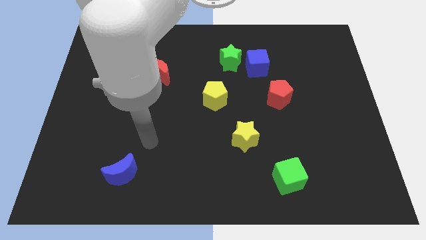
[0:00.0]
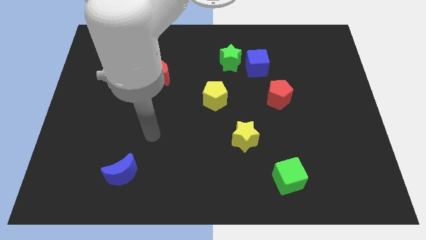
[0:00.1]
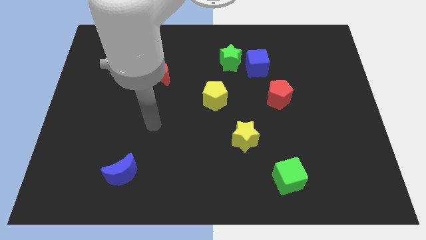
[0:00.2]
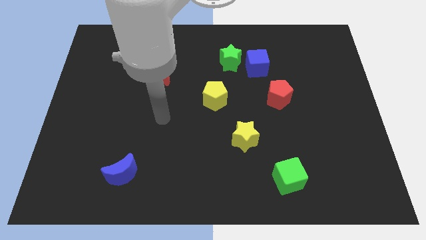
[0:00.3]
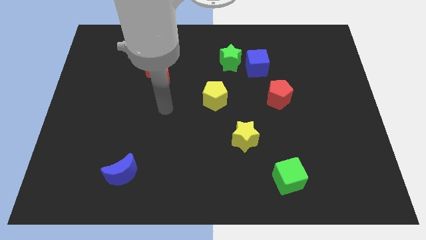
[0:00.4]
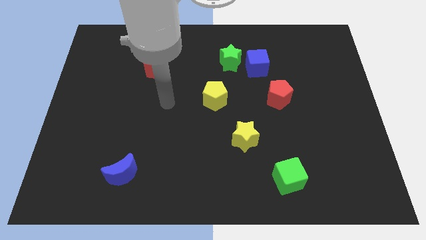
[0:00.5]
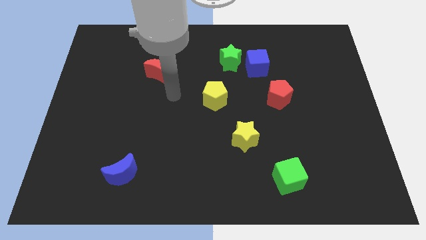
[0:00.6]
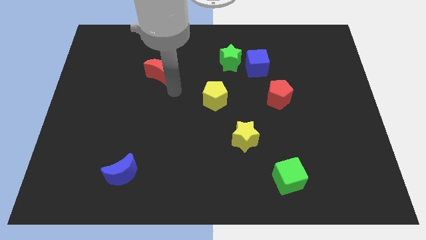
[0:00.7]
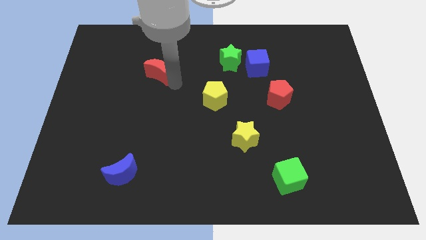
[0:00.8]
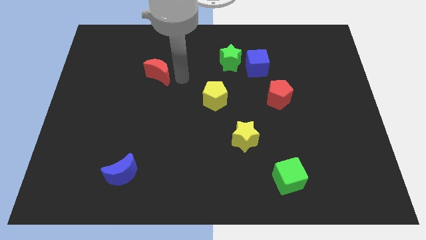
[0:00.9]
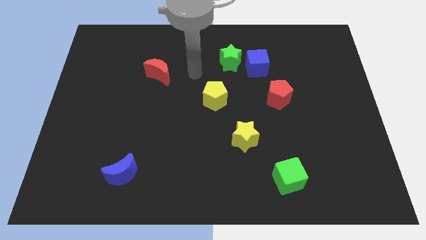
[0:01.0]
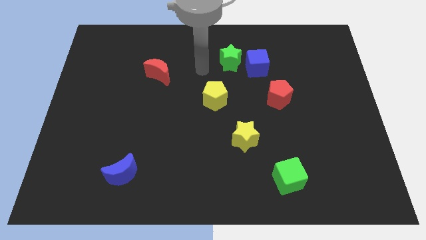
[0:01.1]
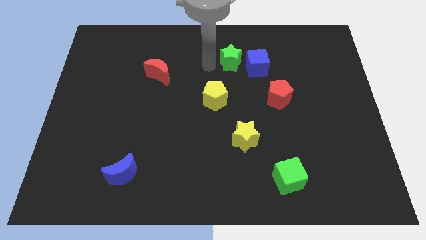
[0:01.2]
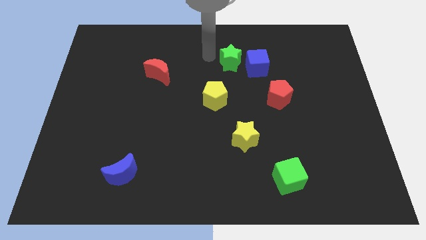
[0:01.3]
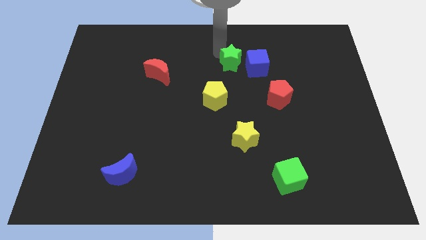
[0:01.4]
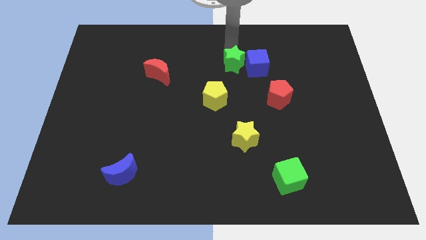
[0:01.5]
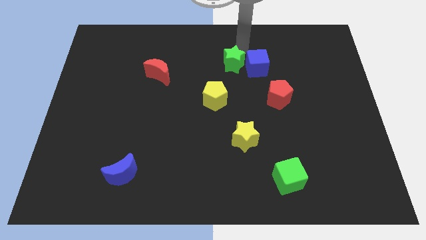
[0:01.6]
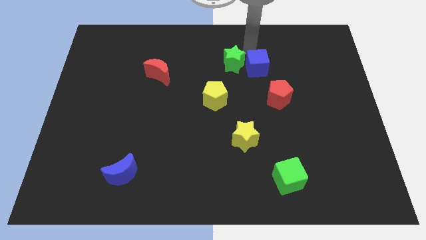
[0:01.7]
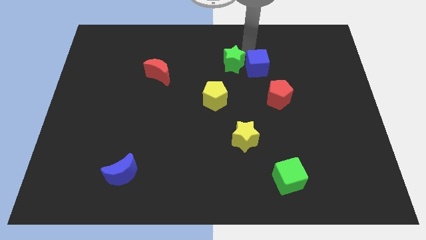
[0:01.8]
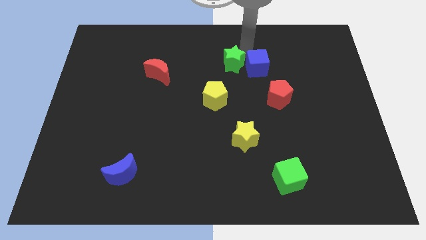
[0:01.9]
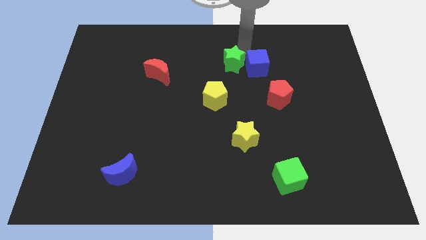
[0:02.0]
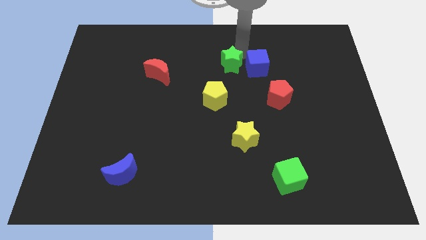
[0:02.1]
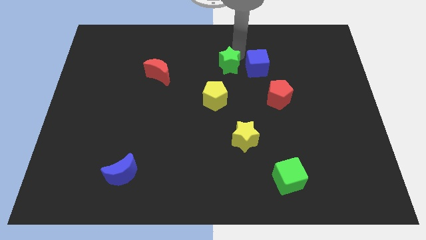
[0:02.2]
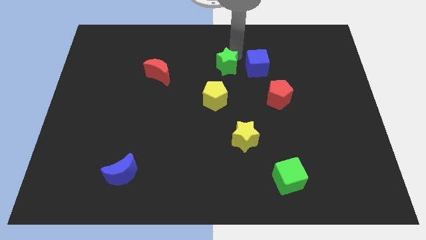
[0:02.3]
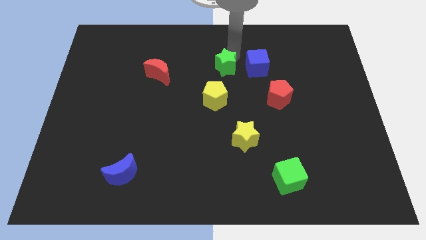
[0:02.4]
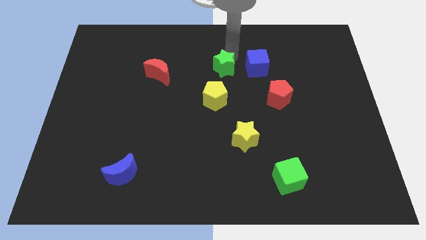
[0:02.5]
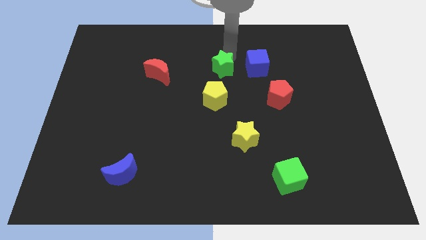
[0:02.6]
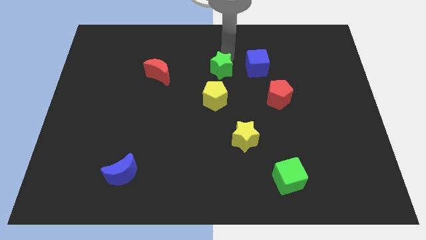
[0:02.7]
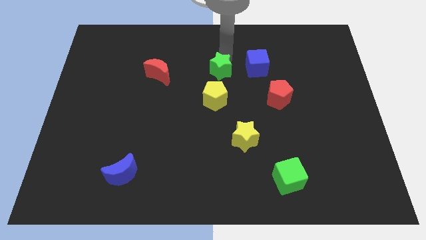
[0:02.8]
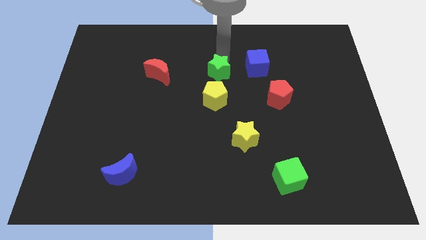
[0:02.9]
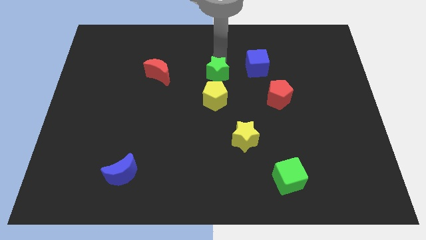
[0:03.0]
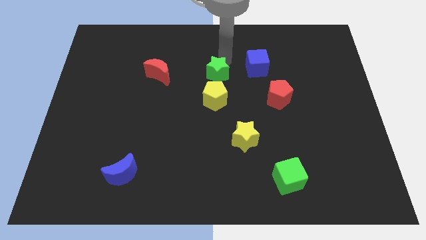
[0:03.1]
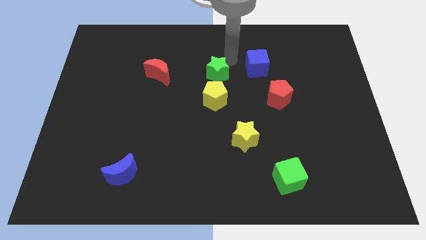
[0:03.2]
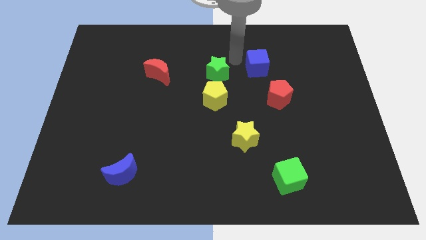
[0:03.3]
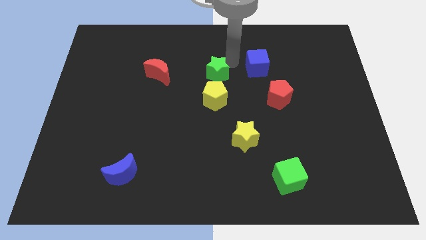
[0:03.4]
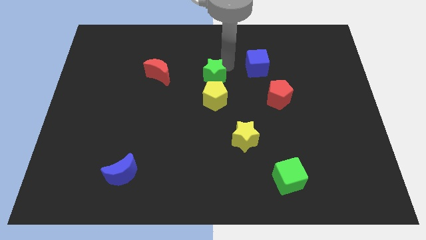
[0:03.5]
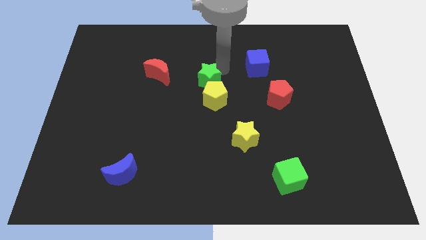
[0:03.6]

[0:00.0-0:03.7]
push the green star downwards and left a bit

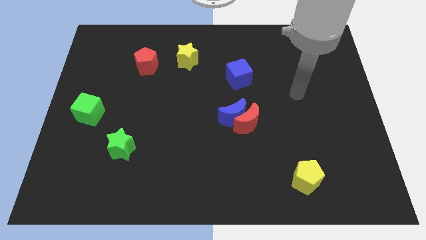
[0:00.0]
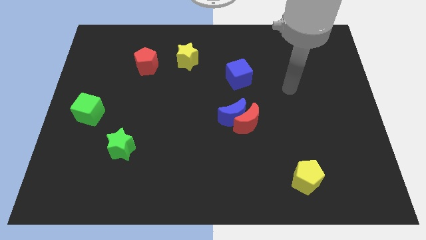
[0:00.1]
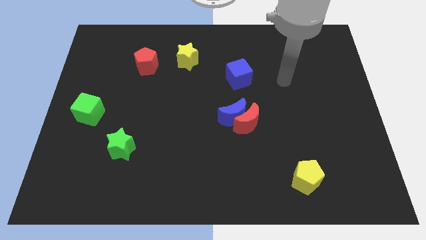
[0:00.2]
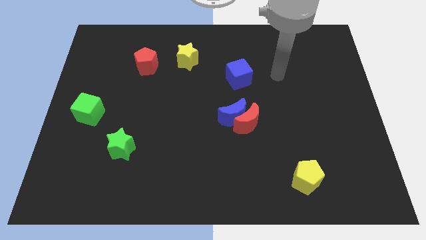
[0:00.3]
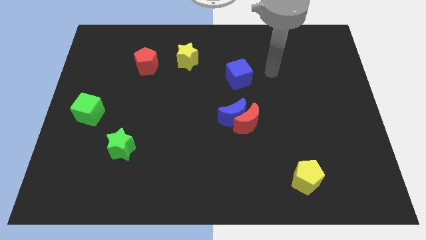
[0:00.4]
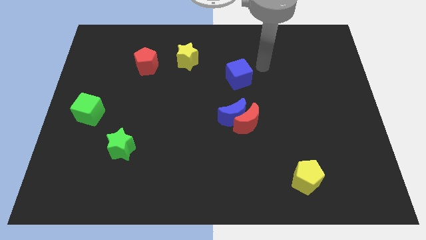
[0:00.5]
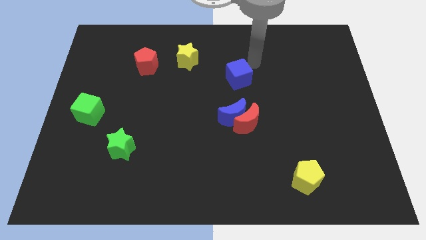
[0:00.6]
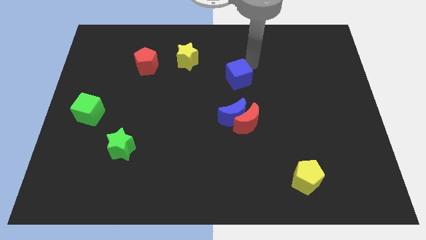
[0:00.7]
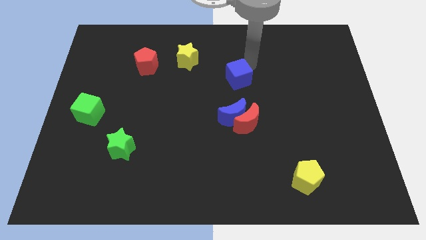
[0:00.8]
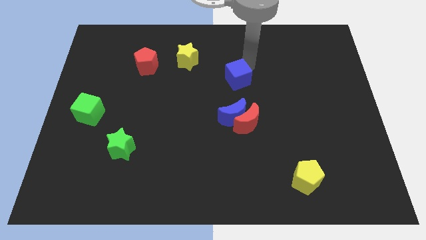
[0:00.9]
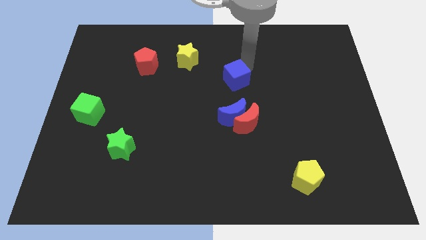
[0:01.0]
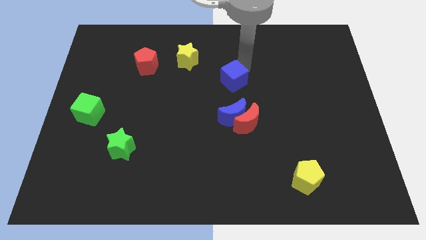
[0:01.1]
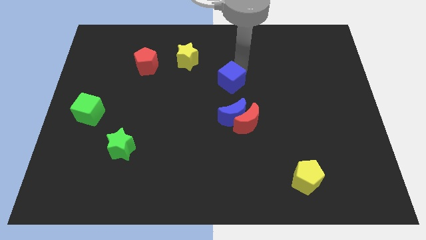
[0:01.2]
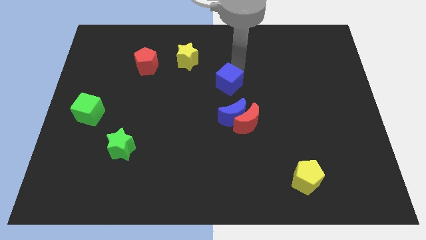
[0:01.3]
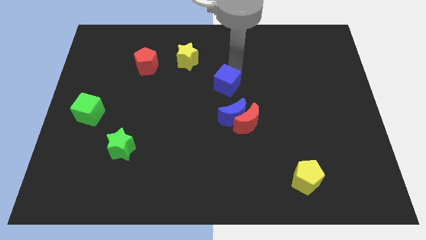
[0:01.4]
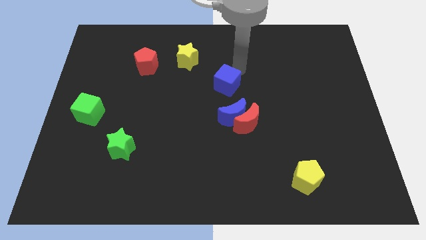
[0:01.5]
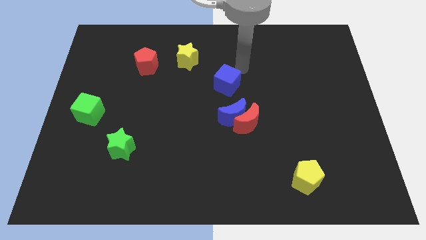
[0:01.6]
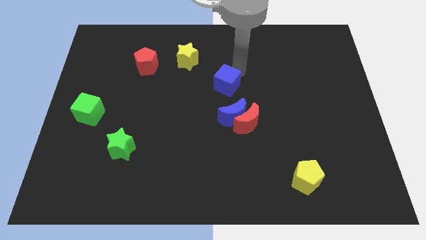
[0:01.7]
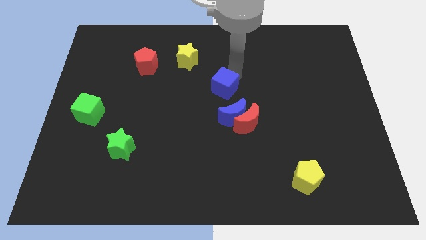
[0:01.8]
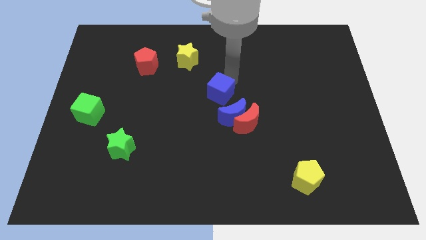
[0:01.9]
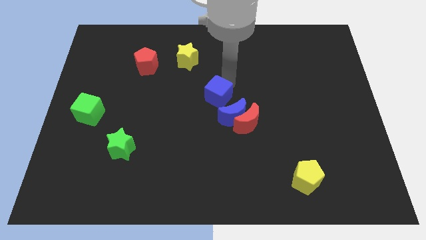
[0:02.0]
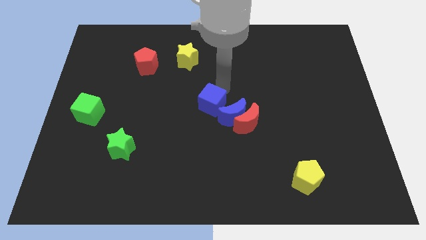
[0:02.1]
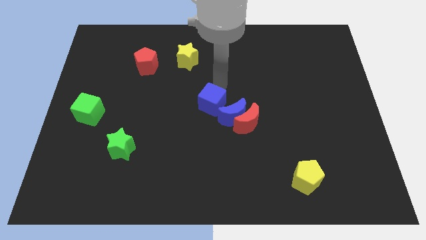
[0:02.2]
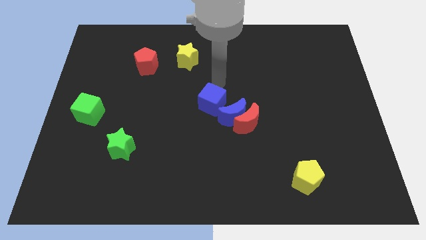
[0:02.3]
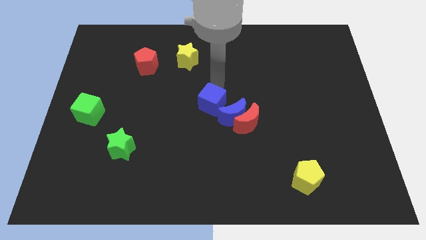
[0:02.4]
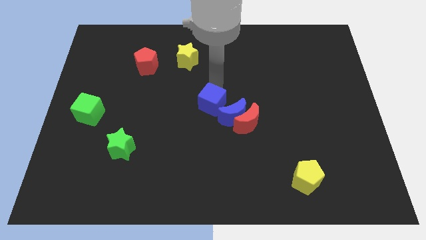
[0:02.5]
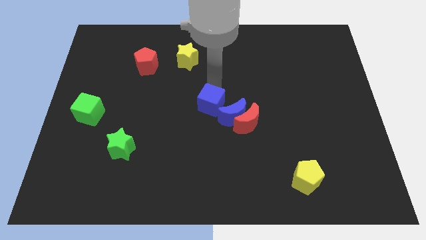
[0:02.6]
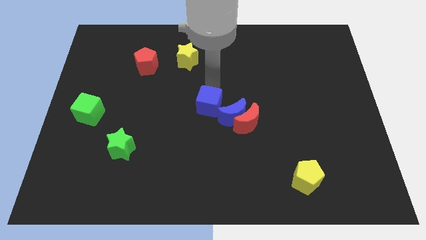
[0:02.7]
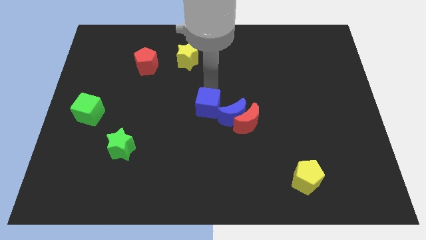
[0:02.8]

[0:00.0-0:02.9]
slide the blue cube a bit down

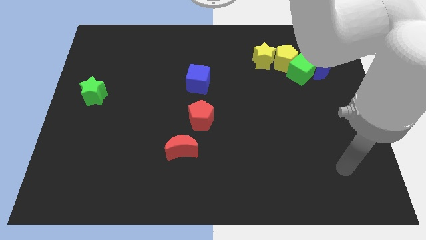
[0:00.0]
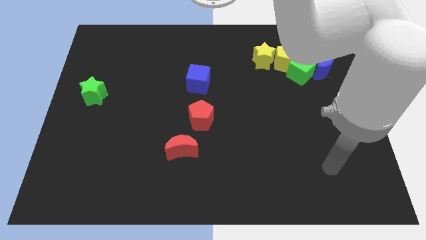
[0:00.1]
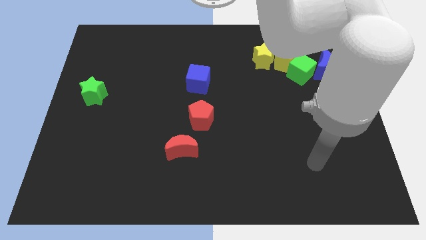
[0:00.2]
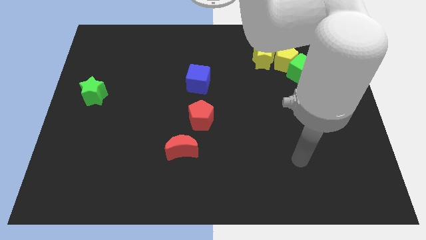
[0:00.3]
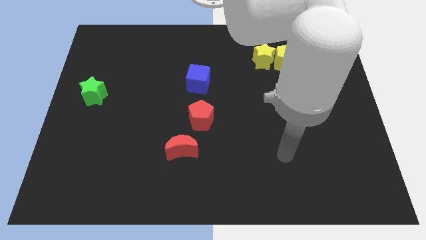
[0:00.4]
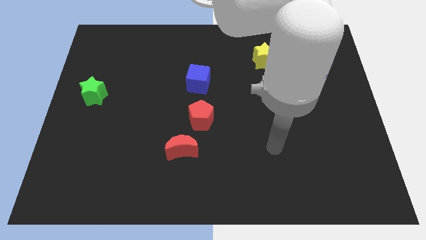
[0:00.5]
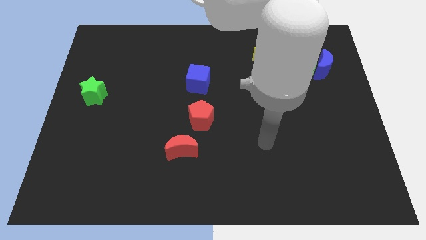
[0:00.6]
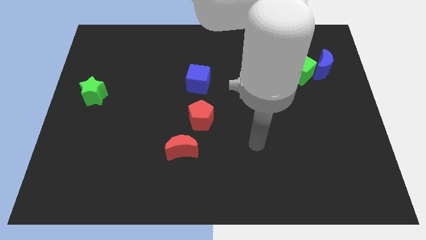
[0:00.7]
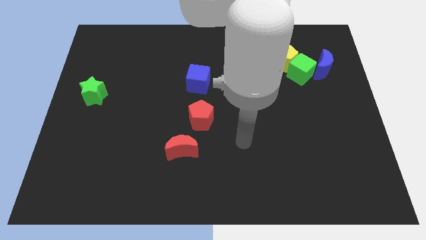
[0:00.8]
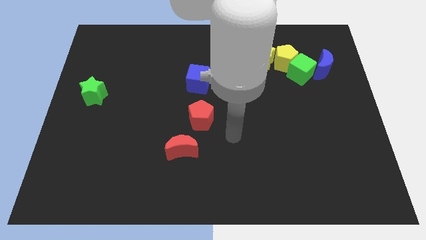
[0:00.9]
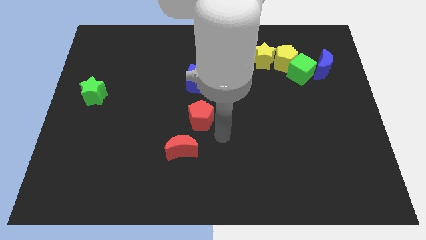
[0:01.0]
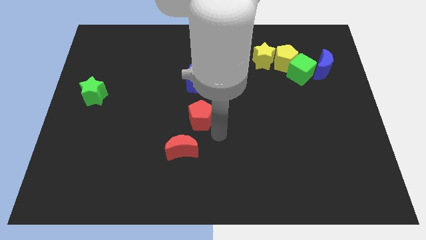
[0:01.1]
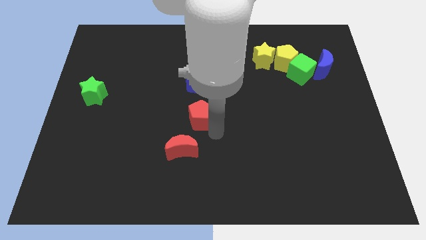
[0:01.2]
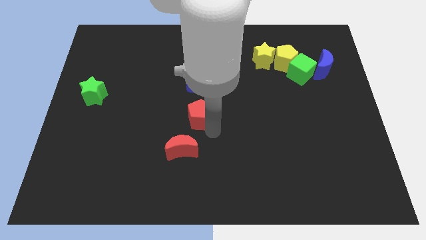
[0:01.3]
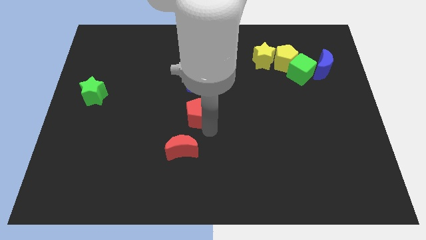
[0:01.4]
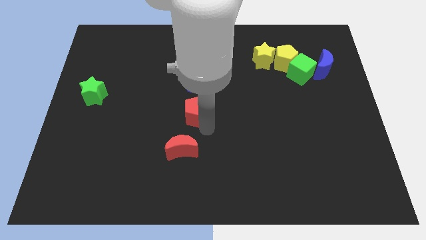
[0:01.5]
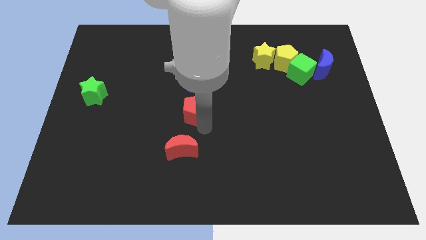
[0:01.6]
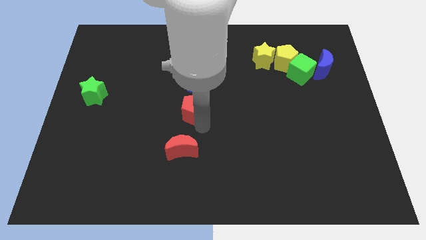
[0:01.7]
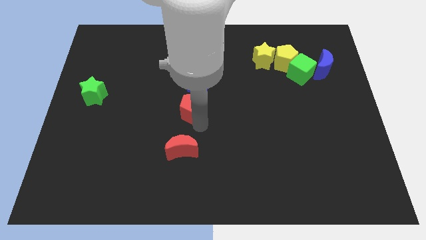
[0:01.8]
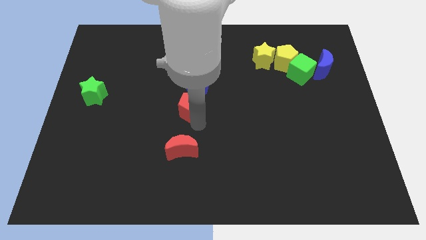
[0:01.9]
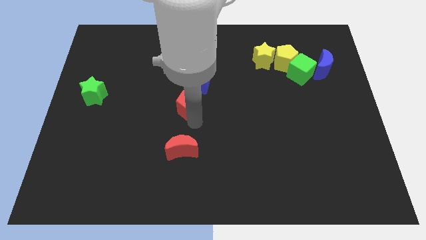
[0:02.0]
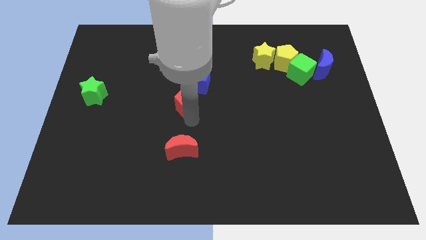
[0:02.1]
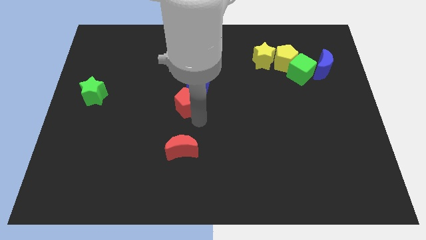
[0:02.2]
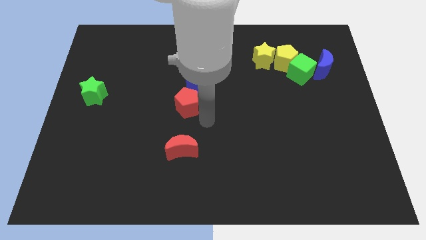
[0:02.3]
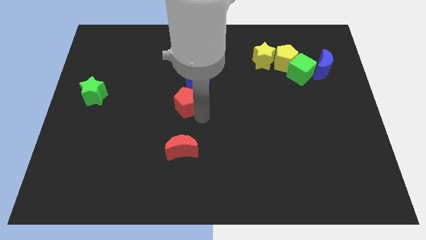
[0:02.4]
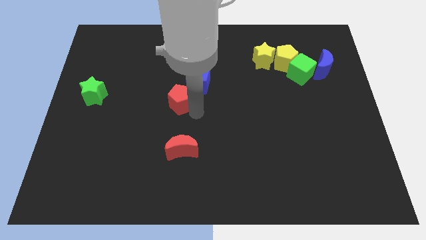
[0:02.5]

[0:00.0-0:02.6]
slide the red pentagon up and then to the left slightly
